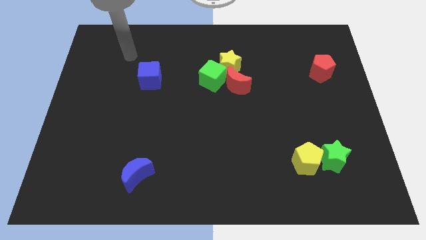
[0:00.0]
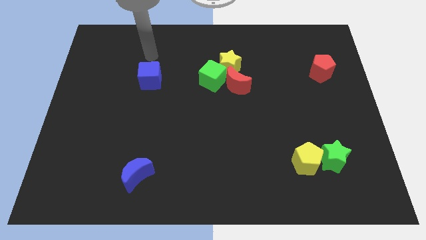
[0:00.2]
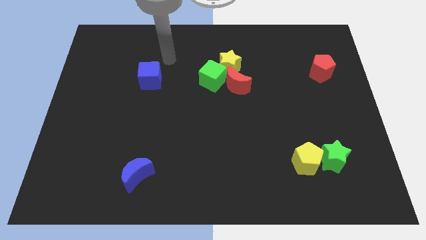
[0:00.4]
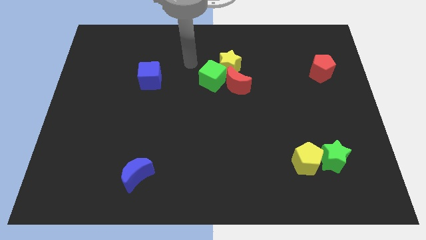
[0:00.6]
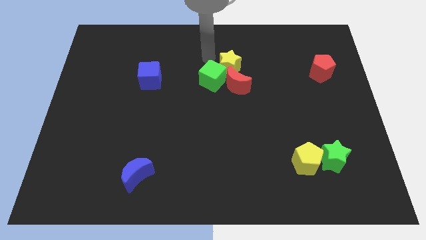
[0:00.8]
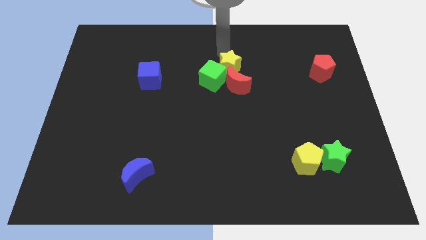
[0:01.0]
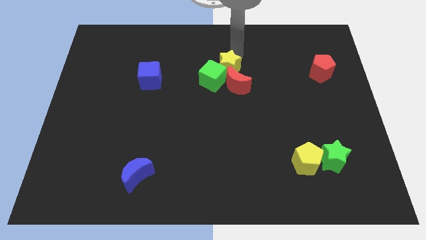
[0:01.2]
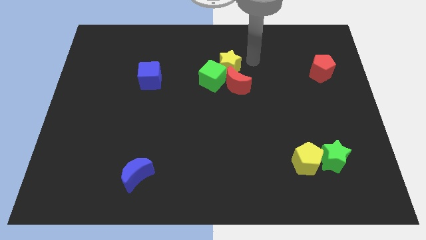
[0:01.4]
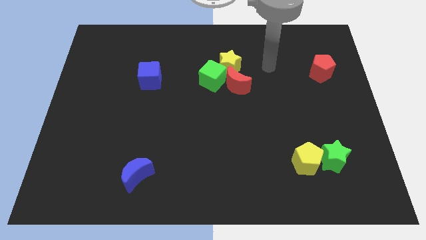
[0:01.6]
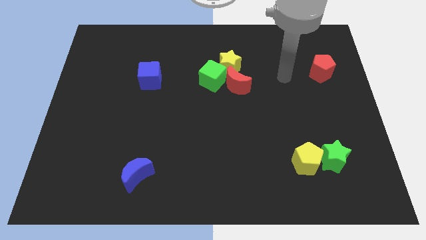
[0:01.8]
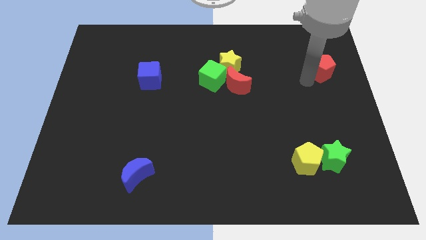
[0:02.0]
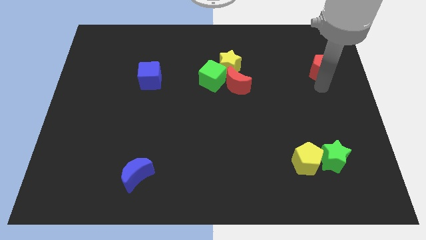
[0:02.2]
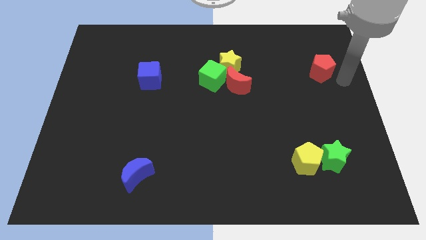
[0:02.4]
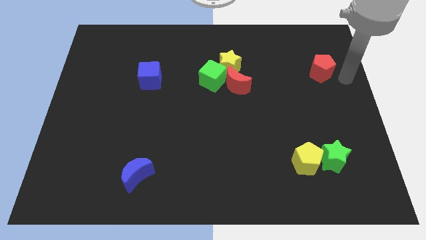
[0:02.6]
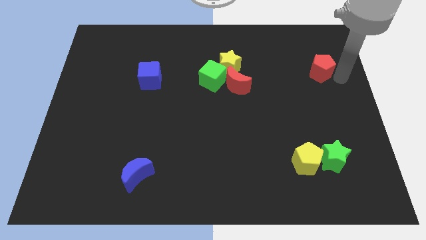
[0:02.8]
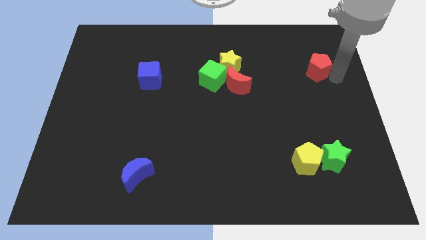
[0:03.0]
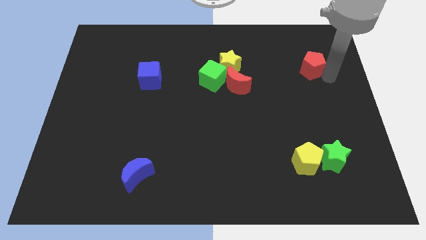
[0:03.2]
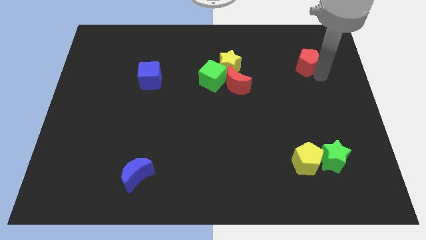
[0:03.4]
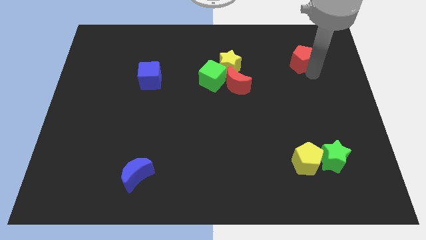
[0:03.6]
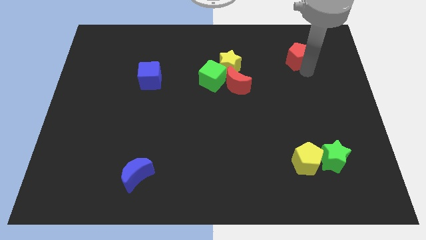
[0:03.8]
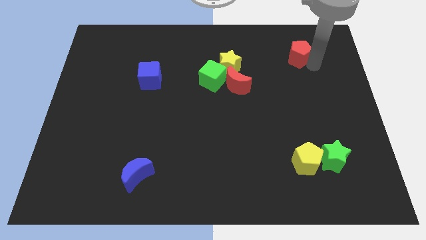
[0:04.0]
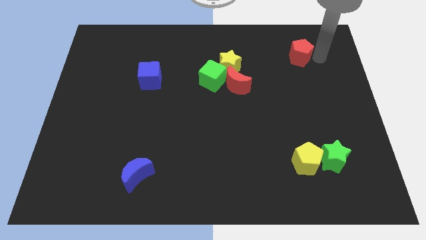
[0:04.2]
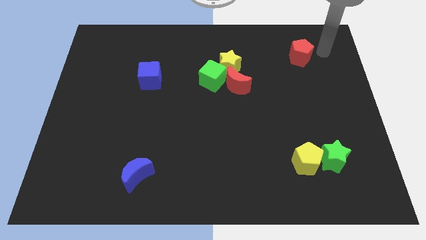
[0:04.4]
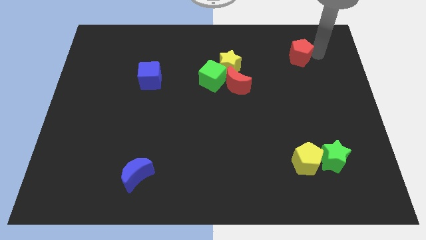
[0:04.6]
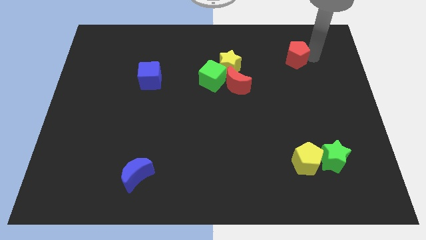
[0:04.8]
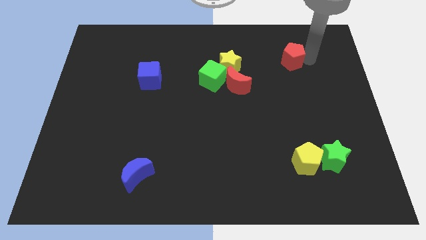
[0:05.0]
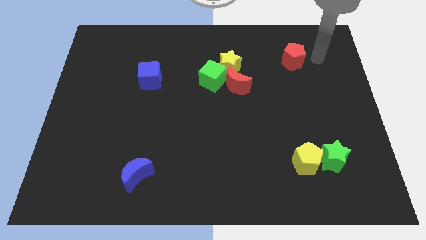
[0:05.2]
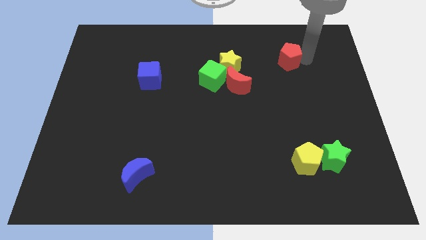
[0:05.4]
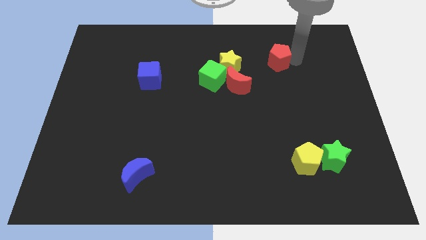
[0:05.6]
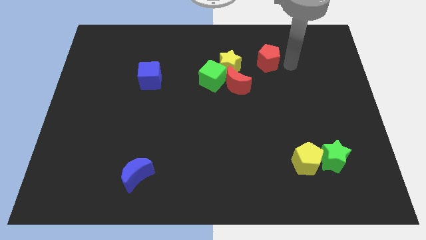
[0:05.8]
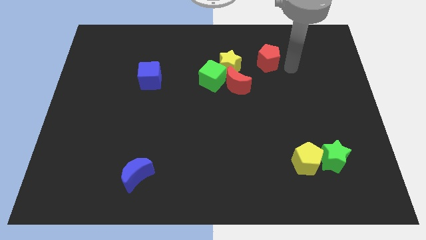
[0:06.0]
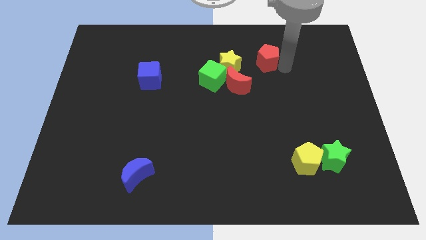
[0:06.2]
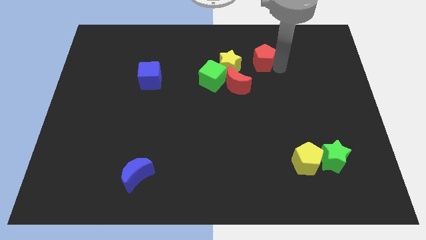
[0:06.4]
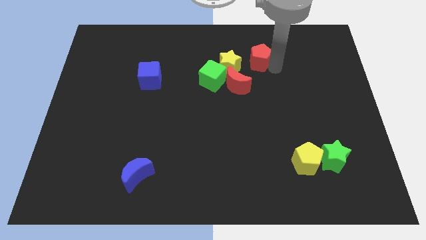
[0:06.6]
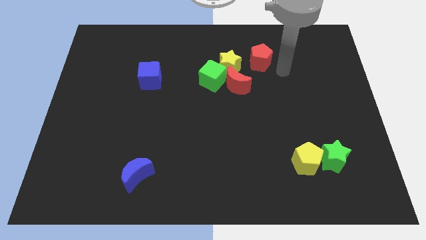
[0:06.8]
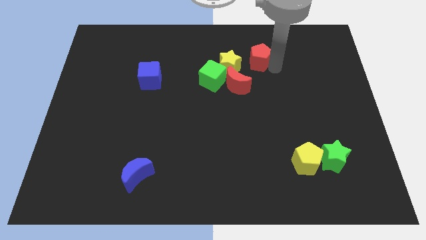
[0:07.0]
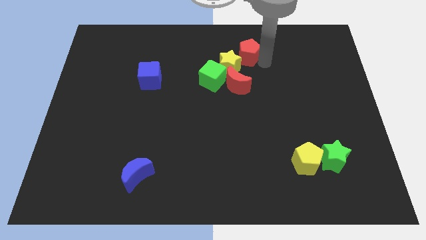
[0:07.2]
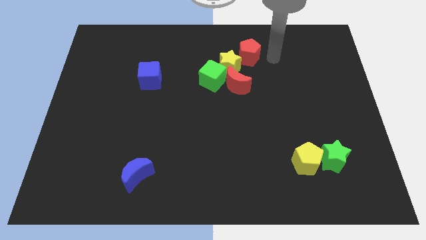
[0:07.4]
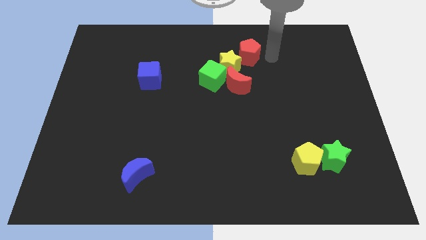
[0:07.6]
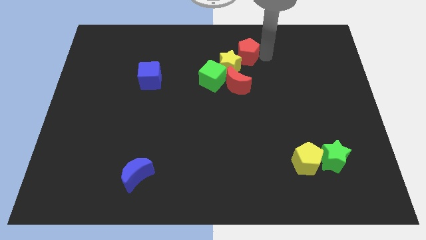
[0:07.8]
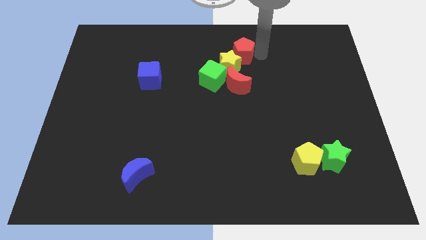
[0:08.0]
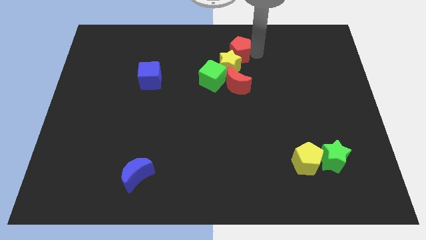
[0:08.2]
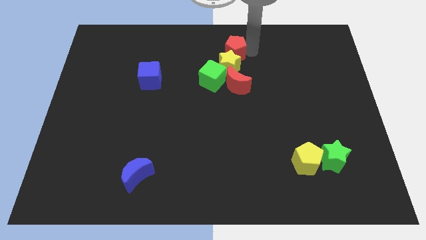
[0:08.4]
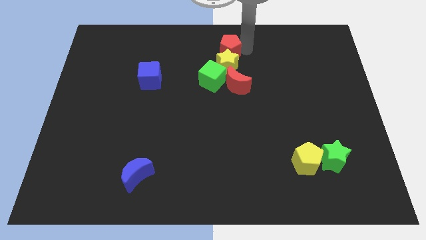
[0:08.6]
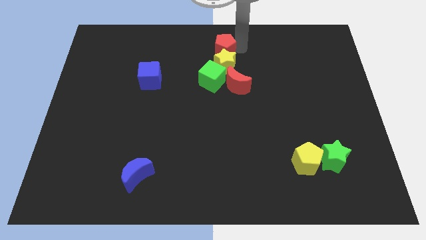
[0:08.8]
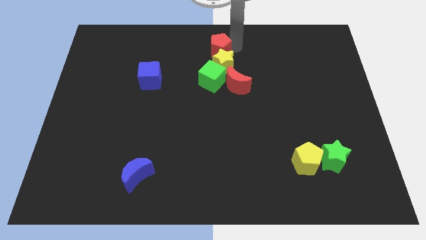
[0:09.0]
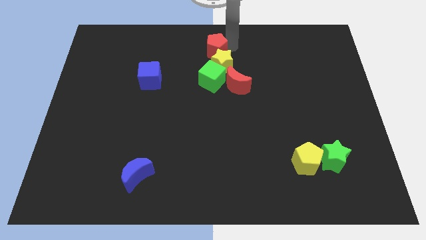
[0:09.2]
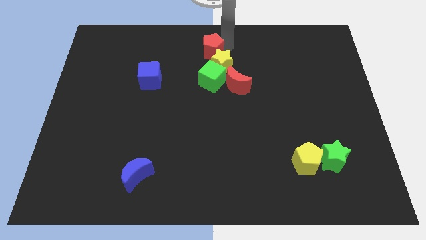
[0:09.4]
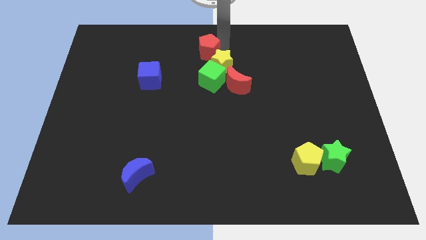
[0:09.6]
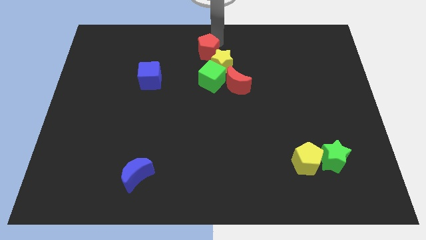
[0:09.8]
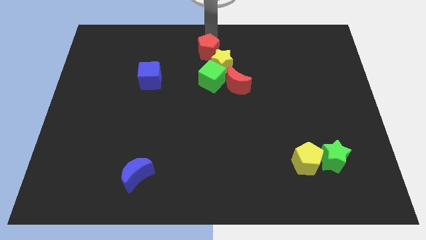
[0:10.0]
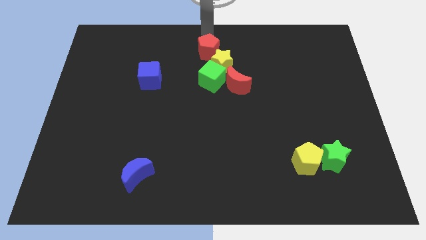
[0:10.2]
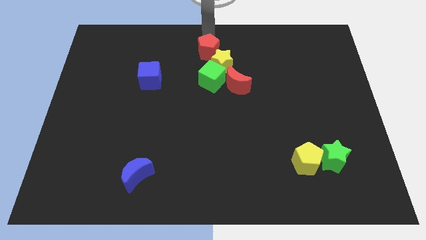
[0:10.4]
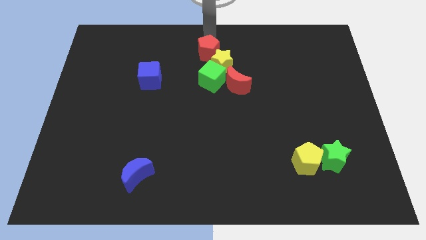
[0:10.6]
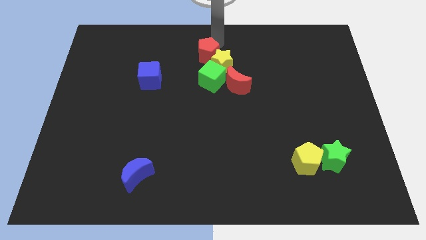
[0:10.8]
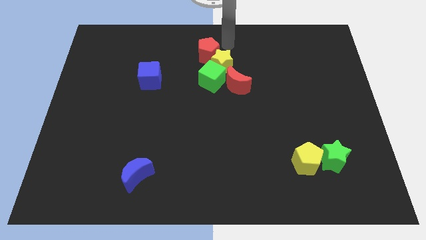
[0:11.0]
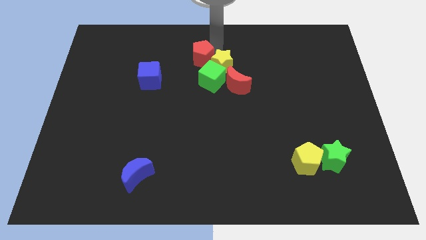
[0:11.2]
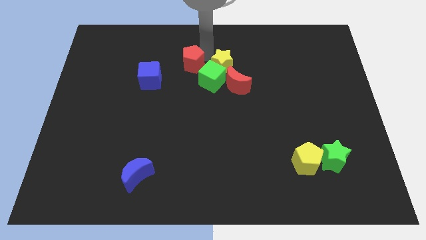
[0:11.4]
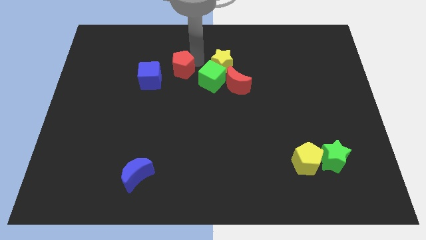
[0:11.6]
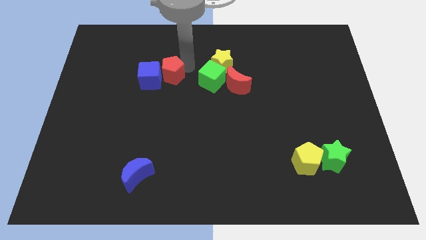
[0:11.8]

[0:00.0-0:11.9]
push the red pentagon towards the blue cube

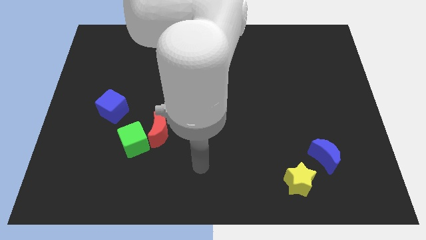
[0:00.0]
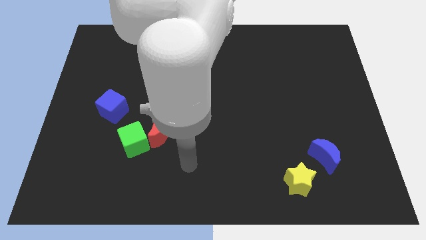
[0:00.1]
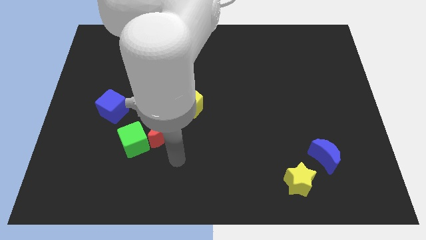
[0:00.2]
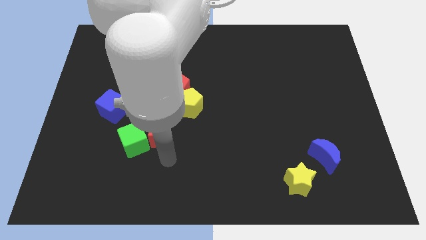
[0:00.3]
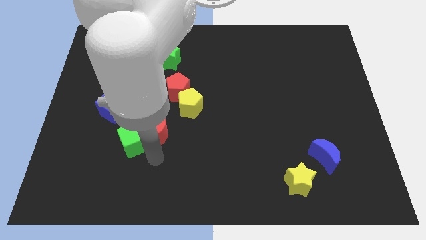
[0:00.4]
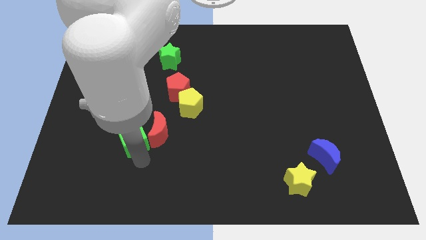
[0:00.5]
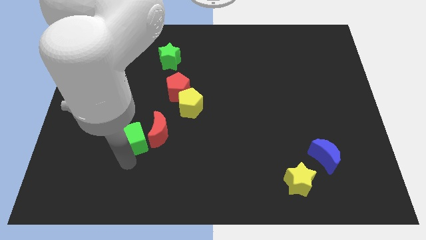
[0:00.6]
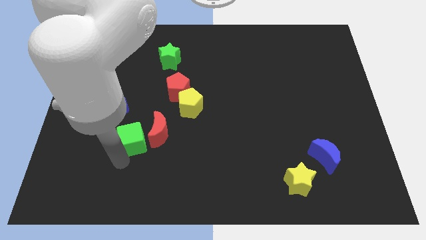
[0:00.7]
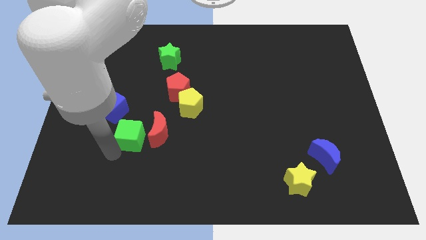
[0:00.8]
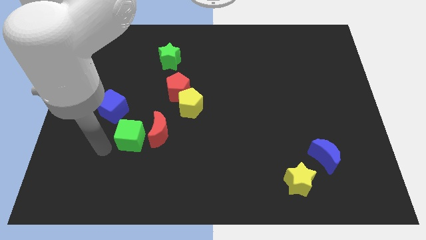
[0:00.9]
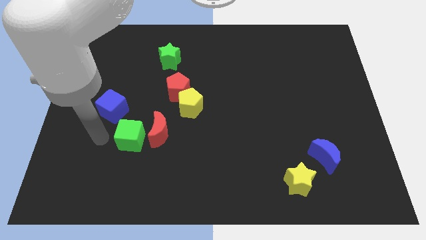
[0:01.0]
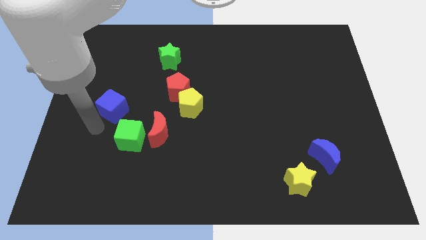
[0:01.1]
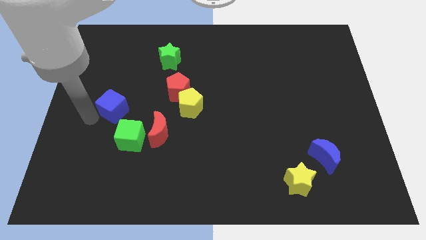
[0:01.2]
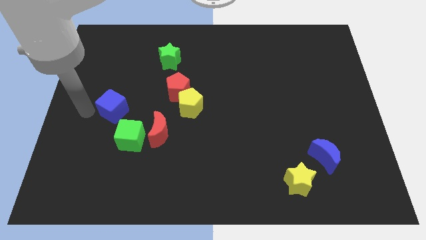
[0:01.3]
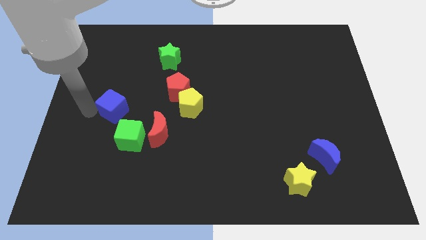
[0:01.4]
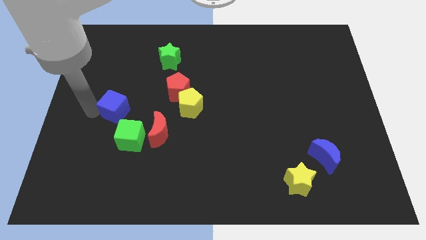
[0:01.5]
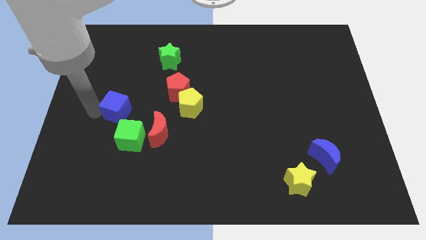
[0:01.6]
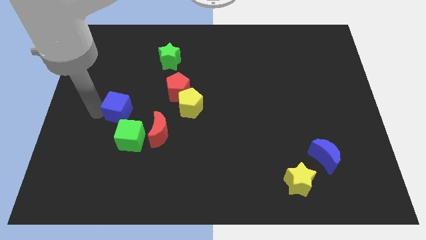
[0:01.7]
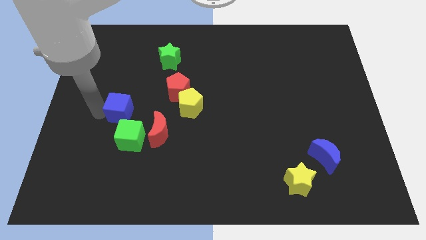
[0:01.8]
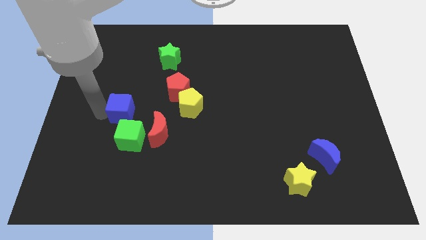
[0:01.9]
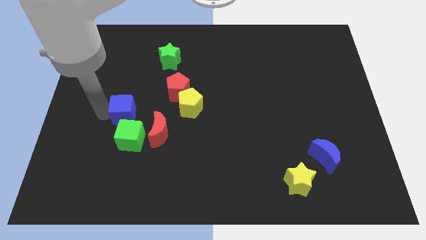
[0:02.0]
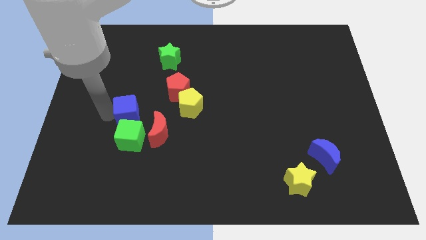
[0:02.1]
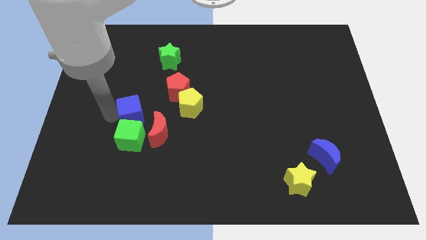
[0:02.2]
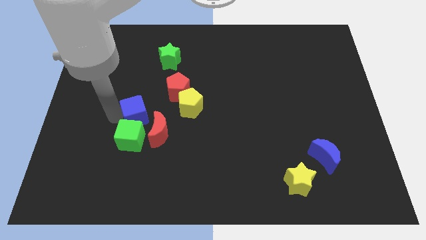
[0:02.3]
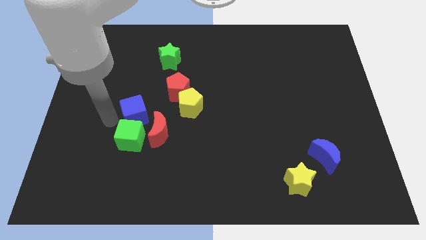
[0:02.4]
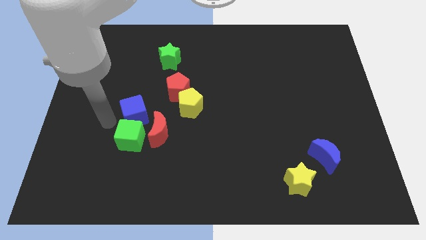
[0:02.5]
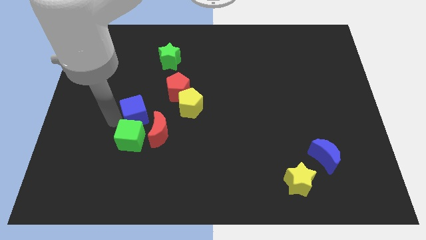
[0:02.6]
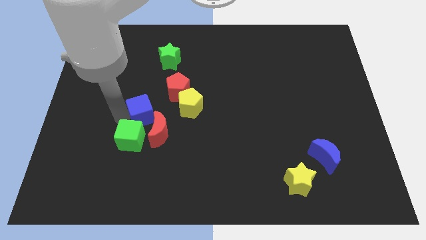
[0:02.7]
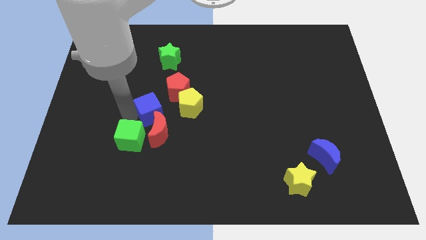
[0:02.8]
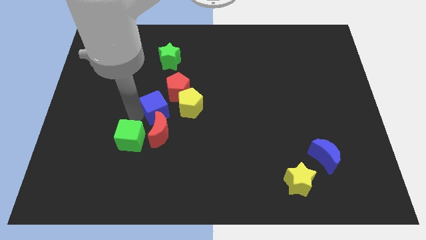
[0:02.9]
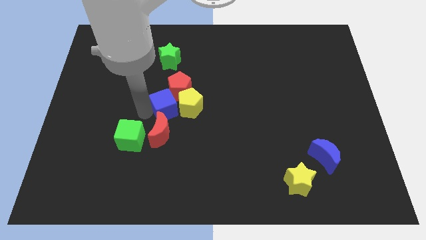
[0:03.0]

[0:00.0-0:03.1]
push the blue cube close to the yellow pentagon
